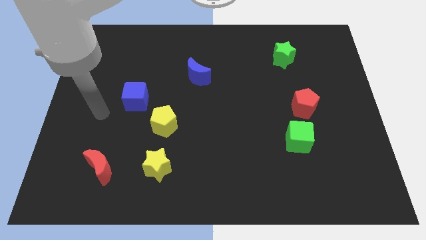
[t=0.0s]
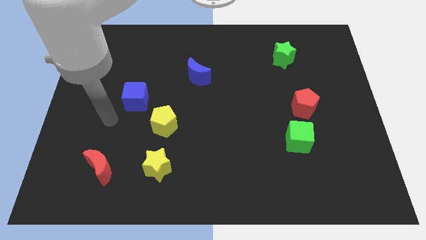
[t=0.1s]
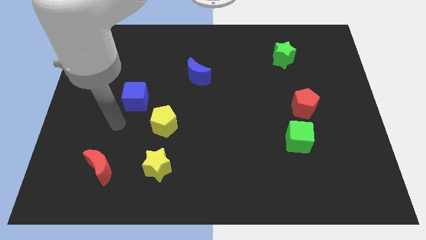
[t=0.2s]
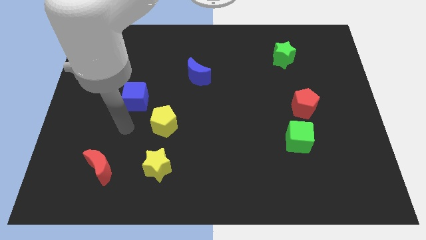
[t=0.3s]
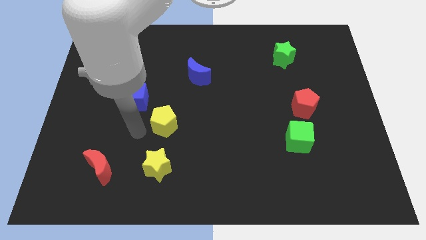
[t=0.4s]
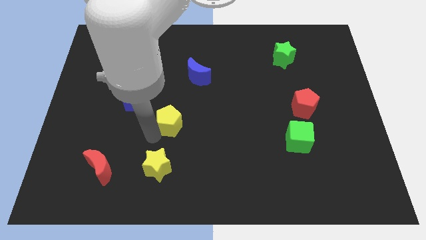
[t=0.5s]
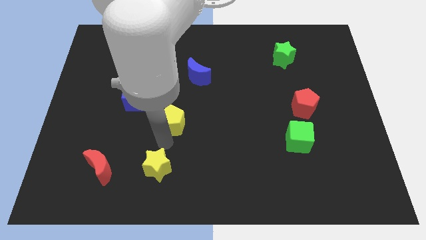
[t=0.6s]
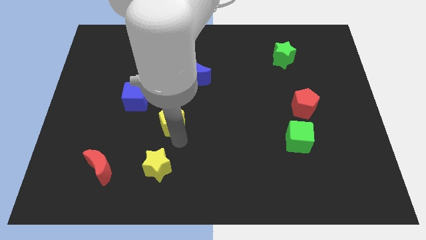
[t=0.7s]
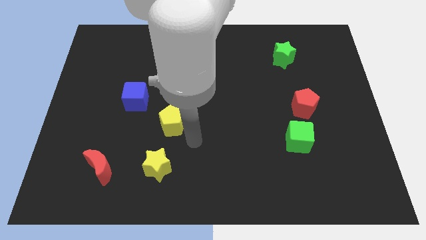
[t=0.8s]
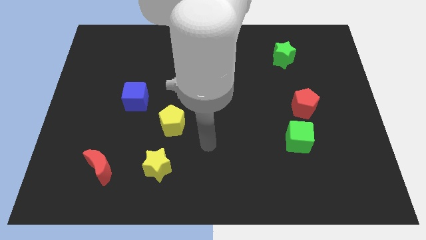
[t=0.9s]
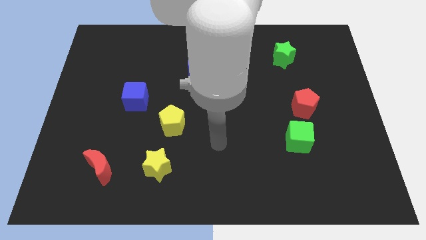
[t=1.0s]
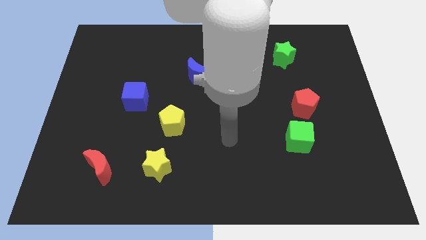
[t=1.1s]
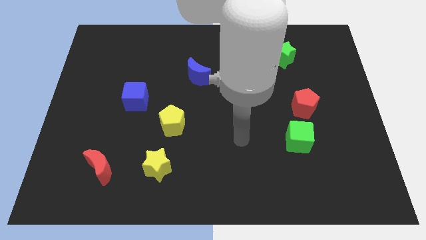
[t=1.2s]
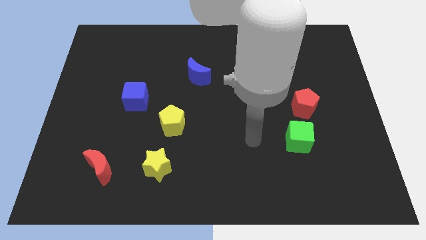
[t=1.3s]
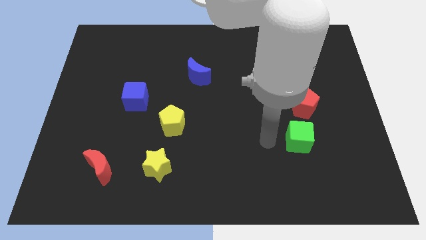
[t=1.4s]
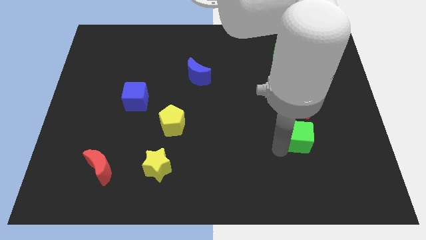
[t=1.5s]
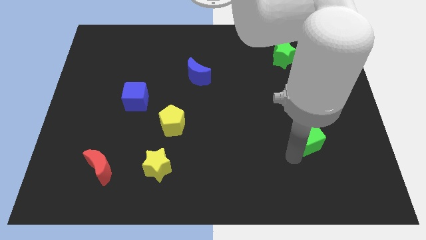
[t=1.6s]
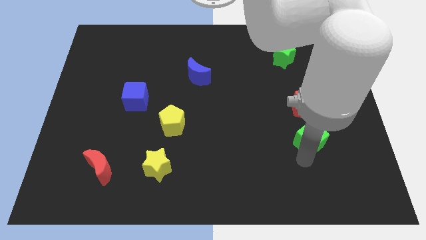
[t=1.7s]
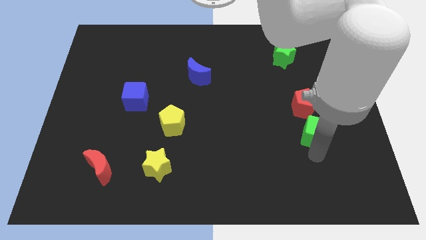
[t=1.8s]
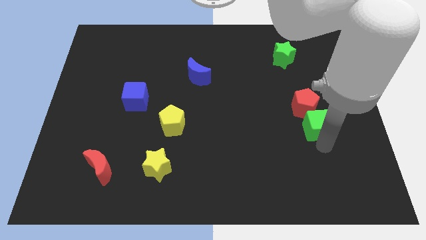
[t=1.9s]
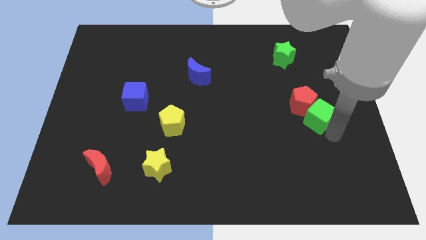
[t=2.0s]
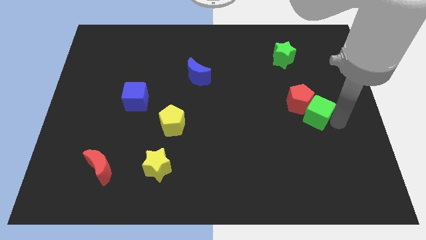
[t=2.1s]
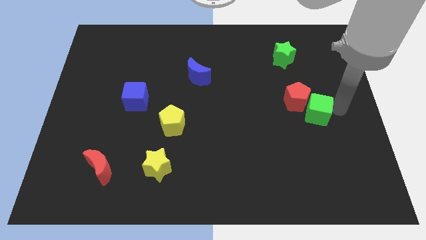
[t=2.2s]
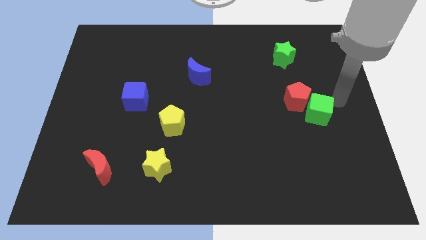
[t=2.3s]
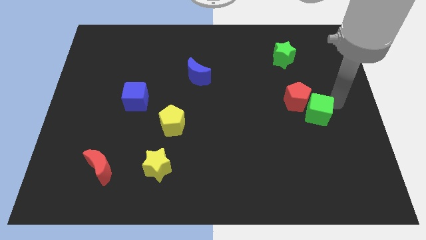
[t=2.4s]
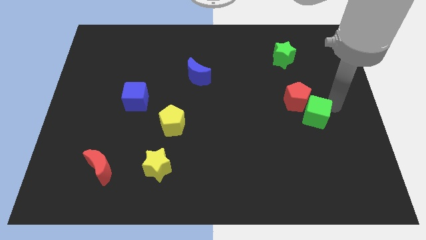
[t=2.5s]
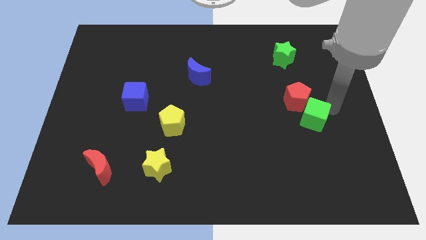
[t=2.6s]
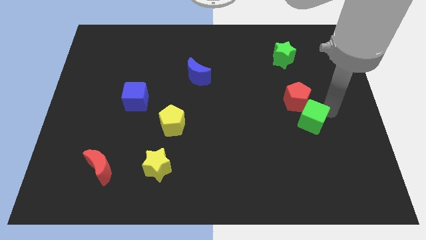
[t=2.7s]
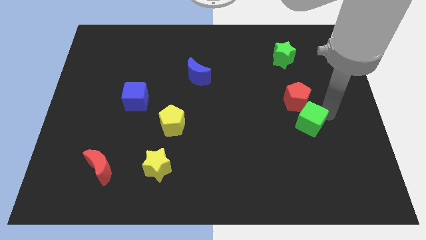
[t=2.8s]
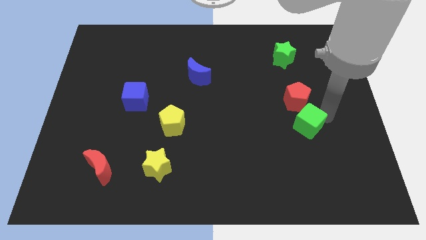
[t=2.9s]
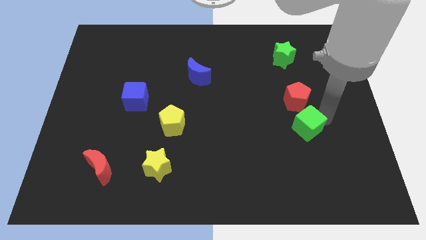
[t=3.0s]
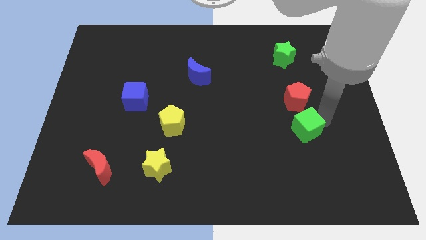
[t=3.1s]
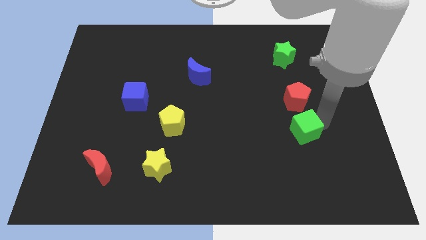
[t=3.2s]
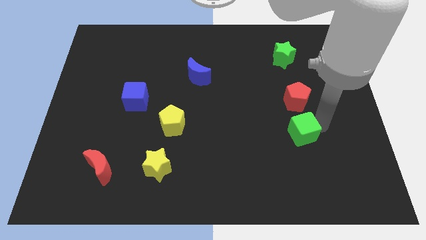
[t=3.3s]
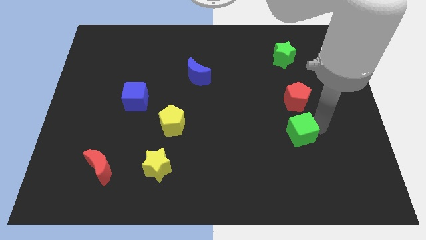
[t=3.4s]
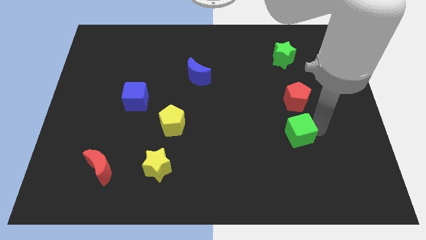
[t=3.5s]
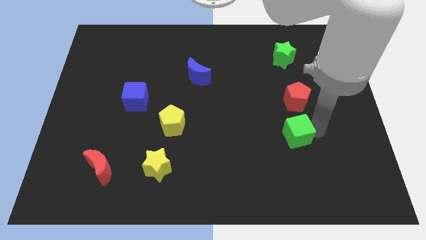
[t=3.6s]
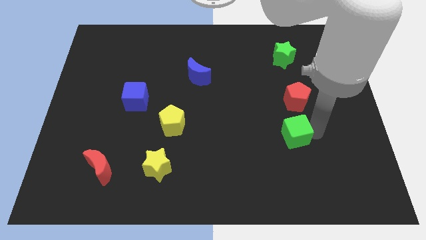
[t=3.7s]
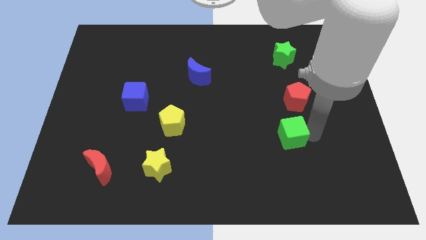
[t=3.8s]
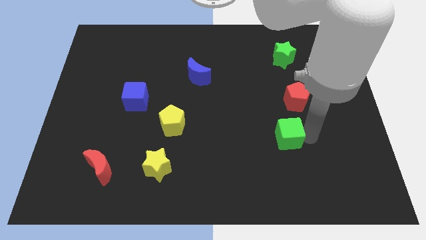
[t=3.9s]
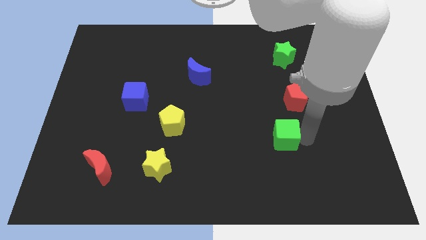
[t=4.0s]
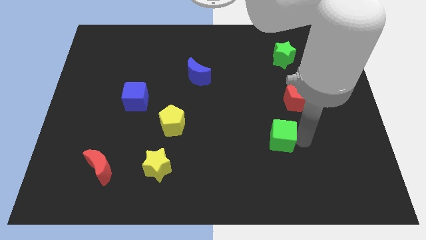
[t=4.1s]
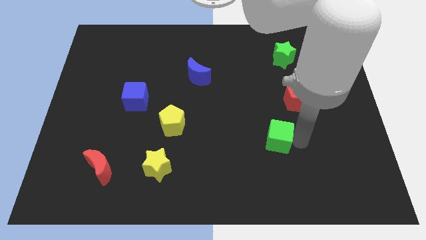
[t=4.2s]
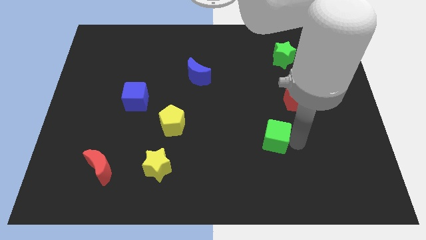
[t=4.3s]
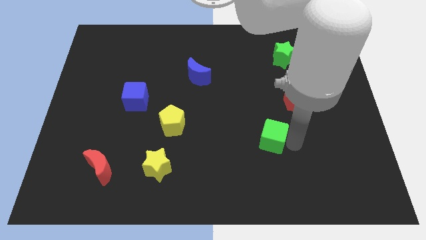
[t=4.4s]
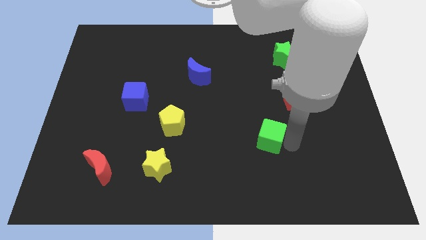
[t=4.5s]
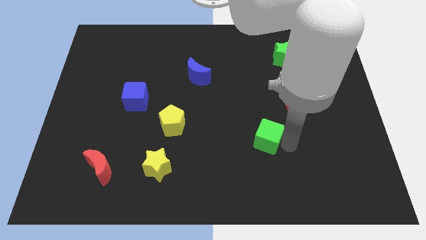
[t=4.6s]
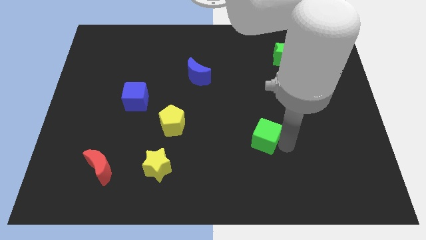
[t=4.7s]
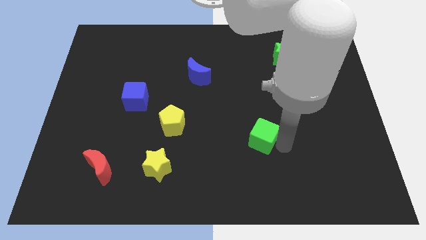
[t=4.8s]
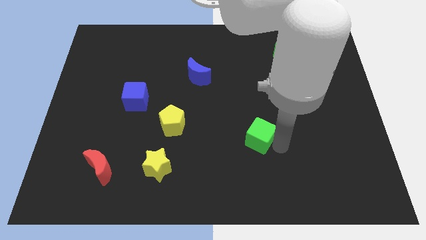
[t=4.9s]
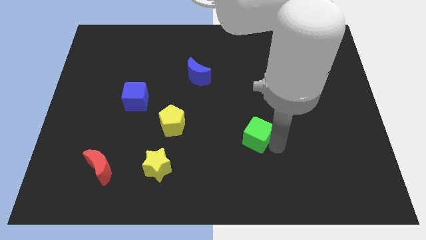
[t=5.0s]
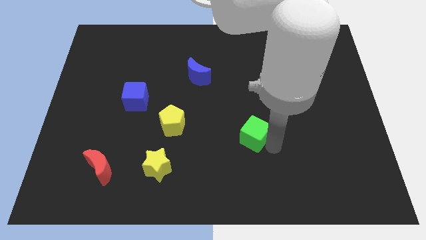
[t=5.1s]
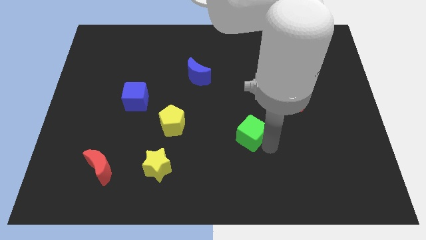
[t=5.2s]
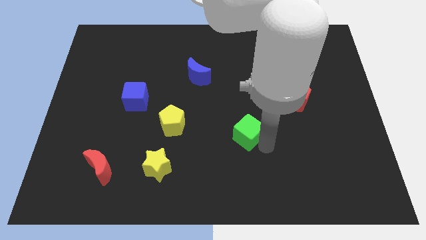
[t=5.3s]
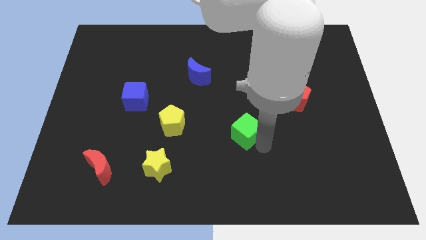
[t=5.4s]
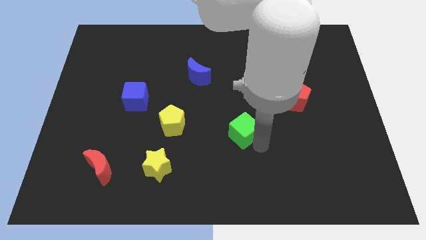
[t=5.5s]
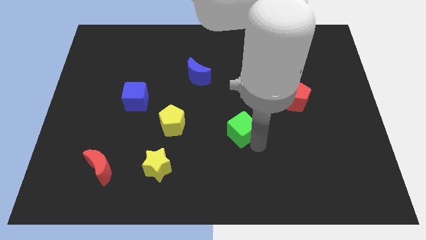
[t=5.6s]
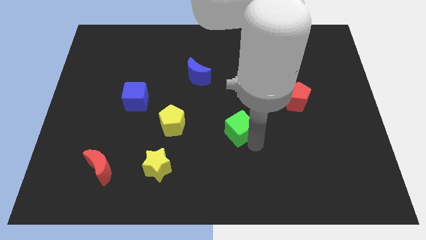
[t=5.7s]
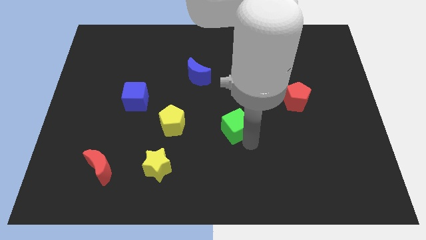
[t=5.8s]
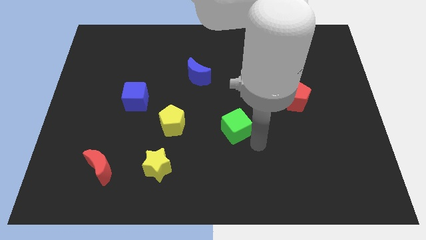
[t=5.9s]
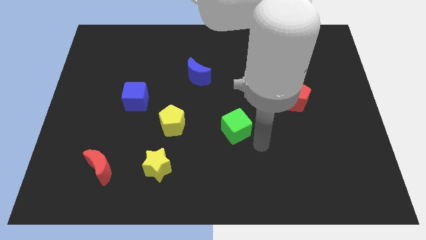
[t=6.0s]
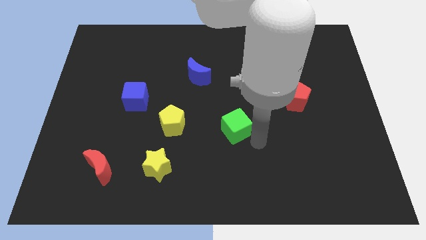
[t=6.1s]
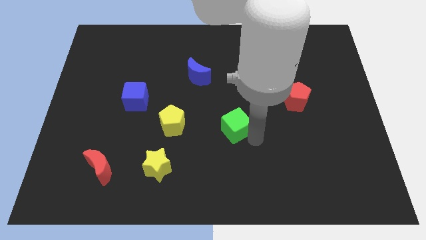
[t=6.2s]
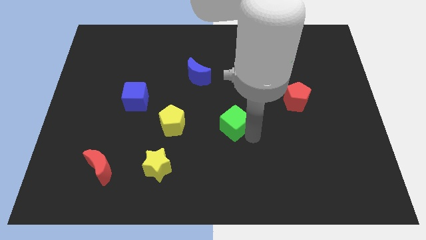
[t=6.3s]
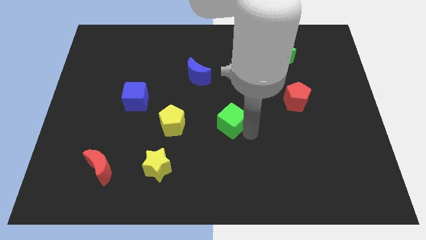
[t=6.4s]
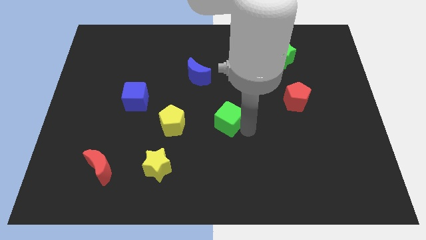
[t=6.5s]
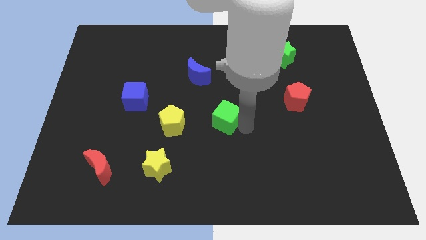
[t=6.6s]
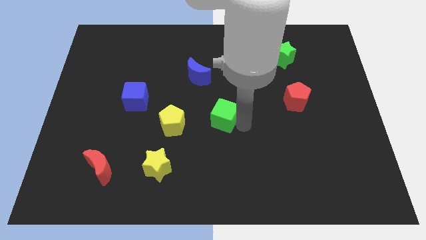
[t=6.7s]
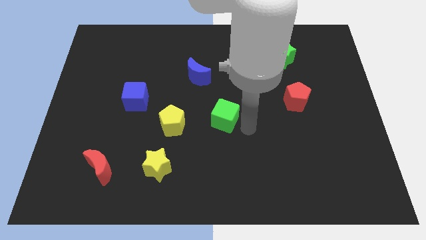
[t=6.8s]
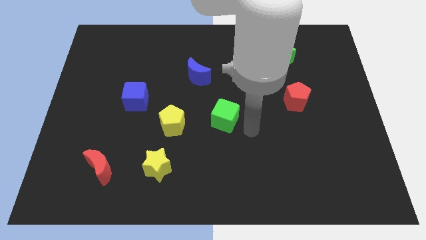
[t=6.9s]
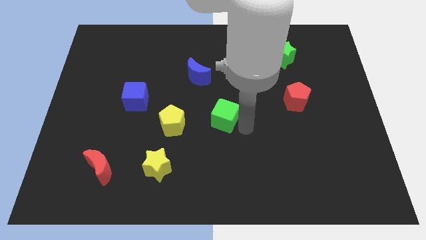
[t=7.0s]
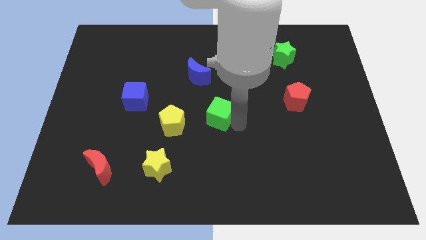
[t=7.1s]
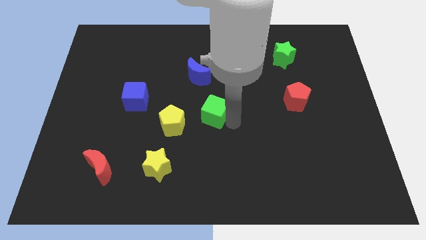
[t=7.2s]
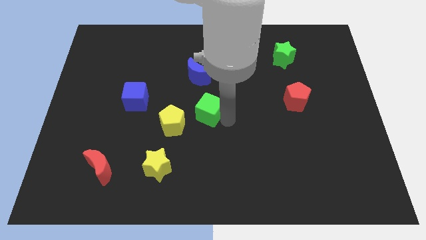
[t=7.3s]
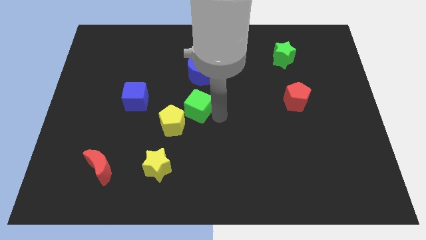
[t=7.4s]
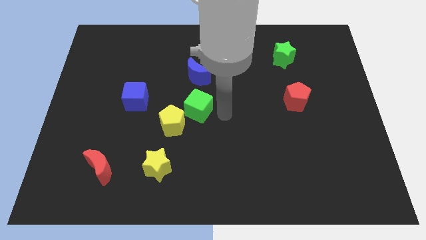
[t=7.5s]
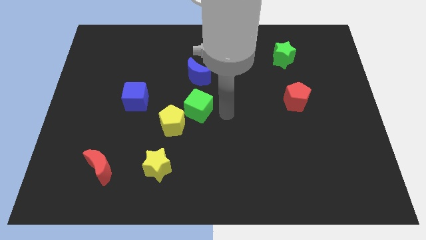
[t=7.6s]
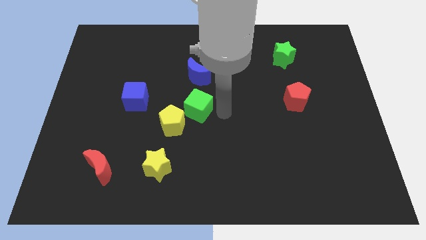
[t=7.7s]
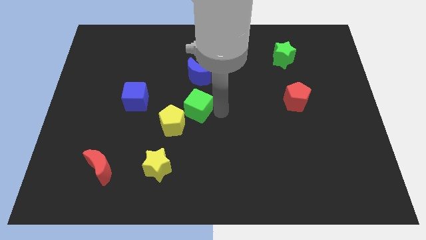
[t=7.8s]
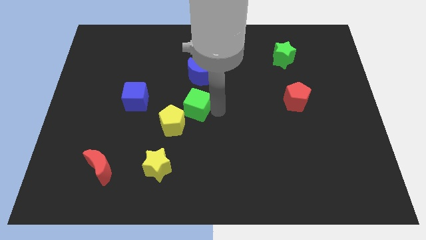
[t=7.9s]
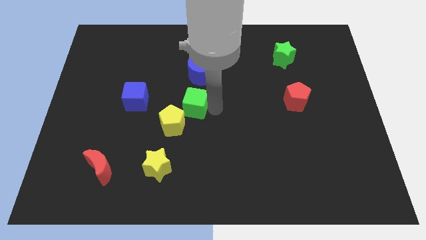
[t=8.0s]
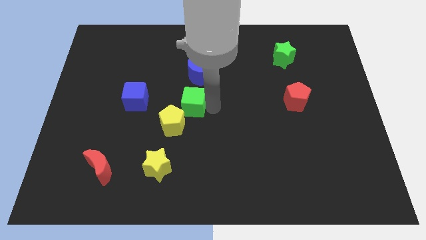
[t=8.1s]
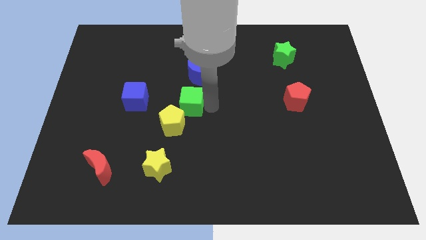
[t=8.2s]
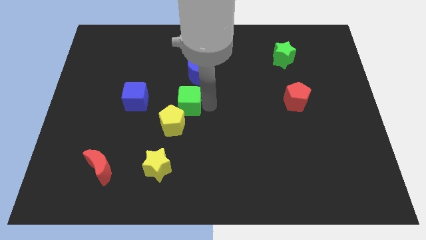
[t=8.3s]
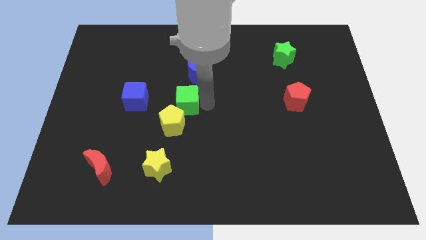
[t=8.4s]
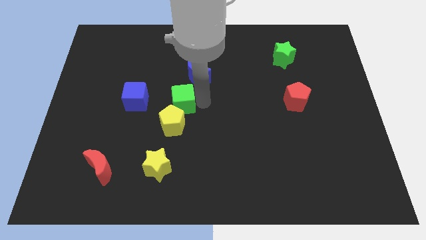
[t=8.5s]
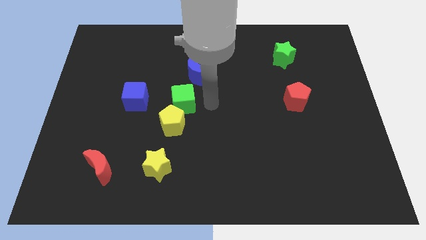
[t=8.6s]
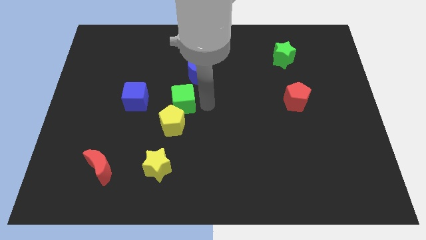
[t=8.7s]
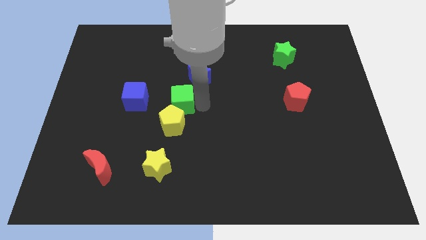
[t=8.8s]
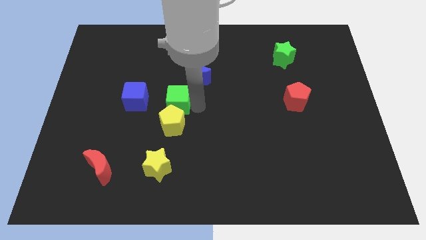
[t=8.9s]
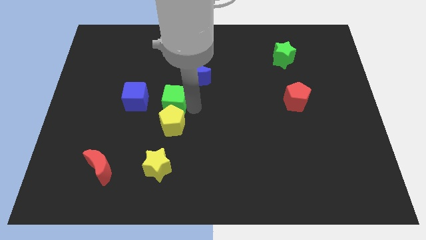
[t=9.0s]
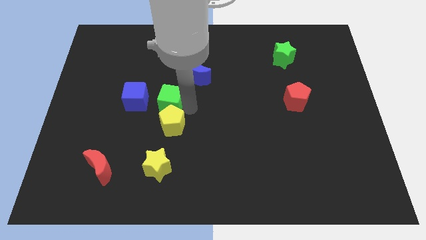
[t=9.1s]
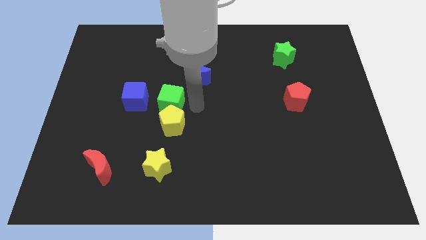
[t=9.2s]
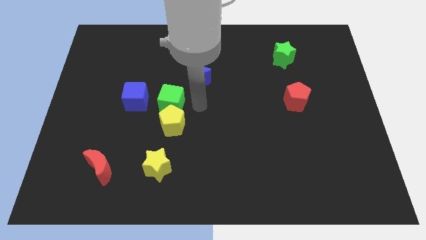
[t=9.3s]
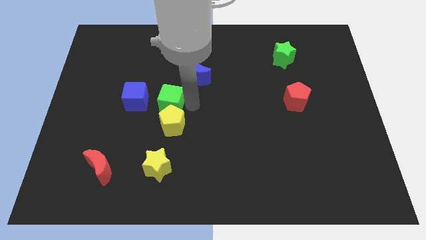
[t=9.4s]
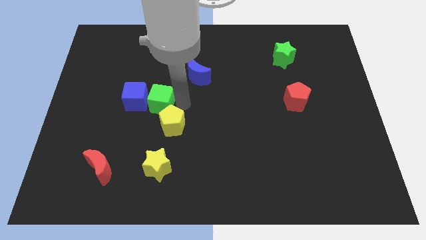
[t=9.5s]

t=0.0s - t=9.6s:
move the green cube towards the blue cube
